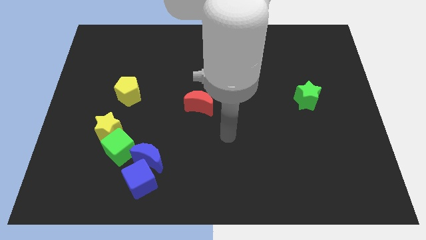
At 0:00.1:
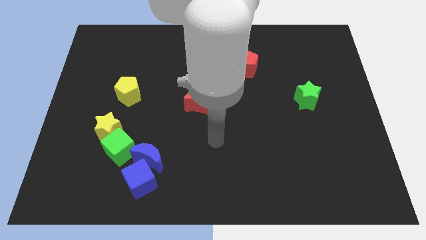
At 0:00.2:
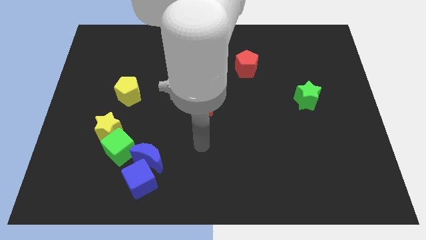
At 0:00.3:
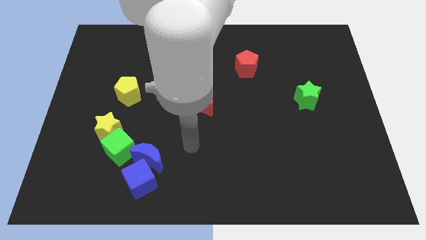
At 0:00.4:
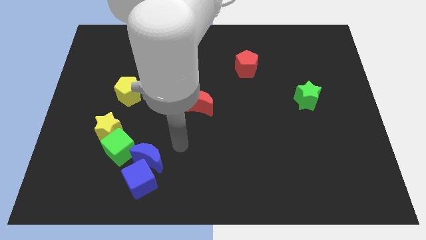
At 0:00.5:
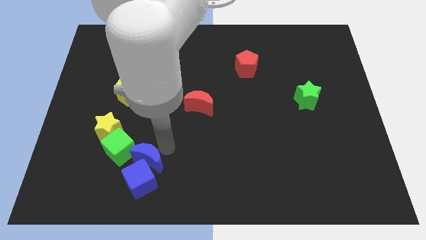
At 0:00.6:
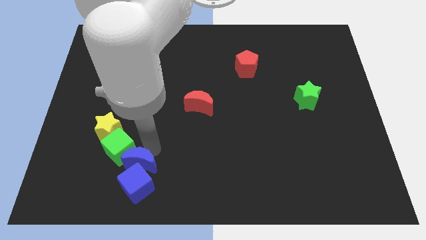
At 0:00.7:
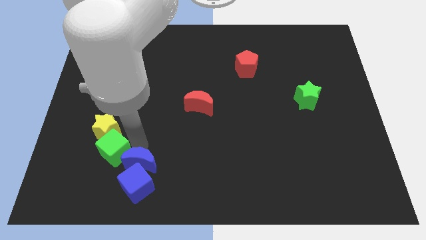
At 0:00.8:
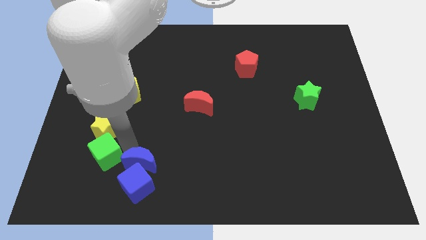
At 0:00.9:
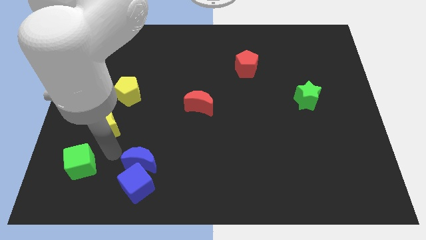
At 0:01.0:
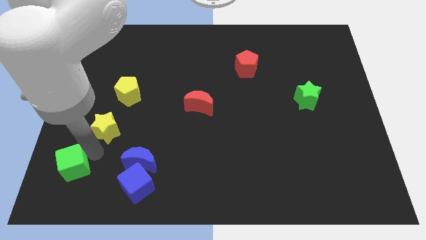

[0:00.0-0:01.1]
pull the yellow star apart from the green cube

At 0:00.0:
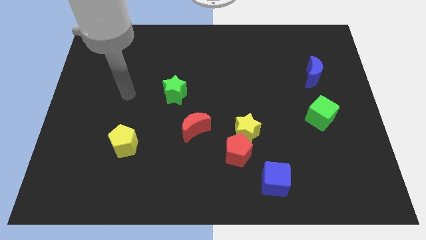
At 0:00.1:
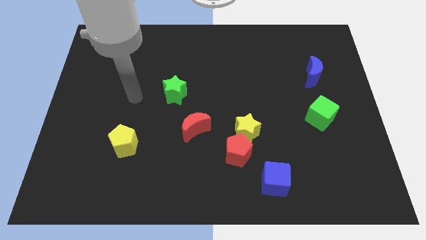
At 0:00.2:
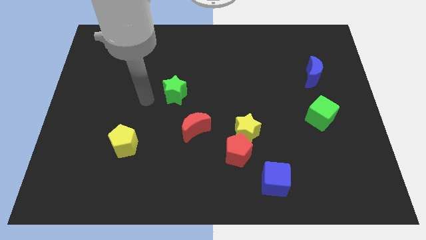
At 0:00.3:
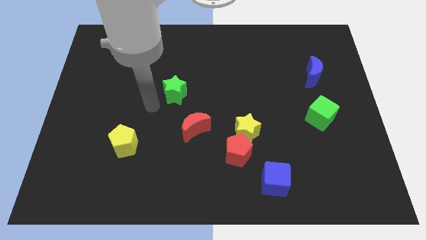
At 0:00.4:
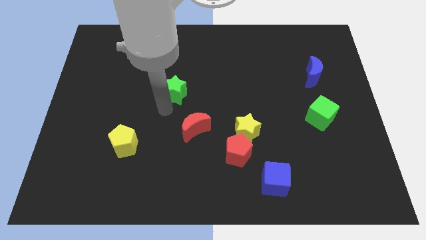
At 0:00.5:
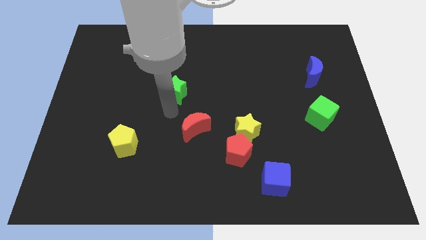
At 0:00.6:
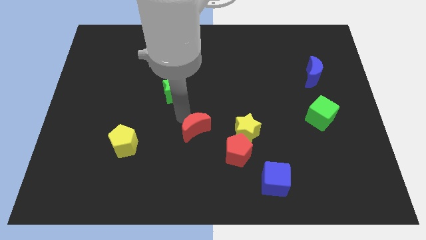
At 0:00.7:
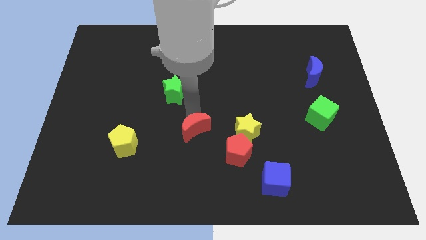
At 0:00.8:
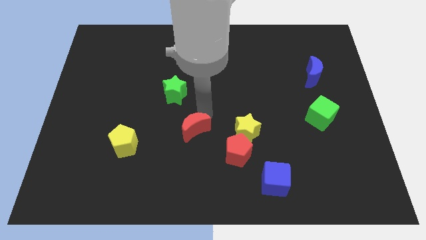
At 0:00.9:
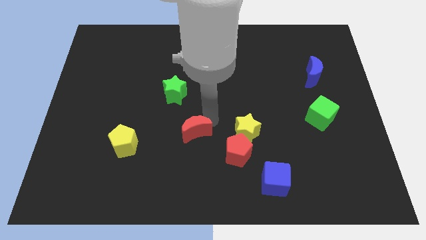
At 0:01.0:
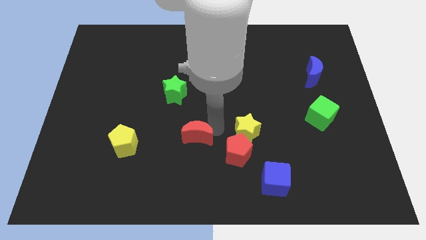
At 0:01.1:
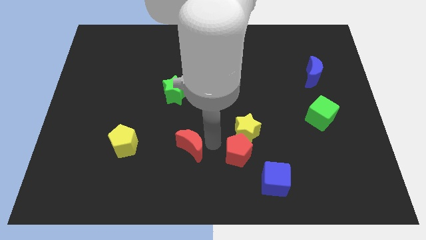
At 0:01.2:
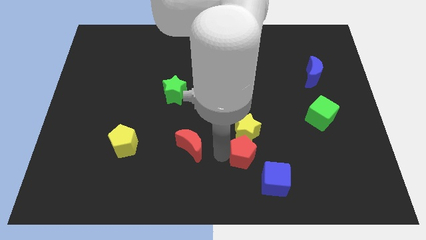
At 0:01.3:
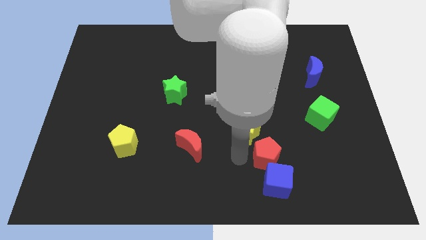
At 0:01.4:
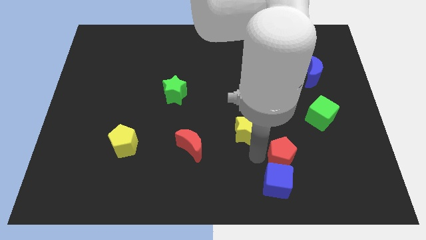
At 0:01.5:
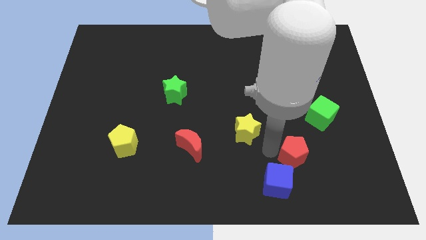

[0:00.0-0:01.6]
move the yellow star away from the red pentagon

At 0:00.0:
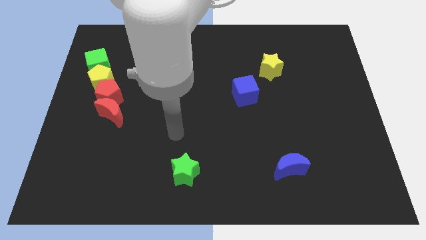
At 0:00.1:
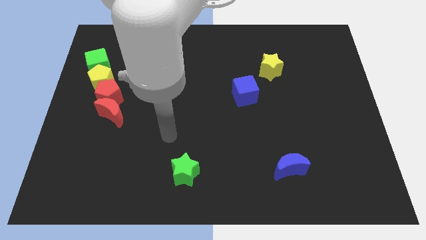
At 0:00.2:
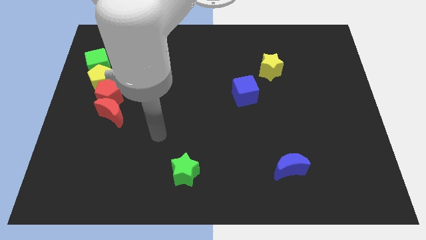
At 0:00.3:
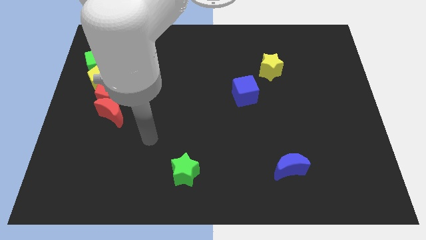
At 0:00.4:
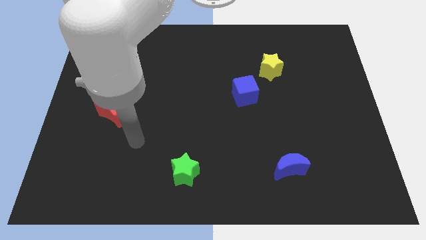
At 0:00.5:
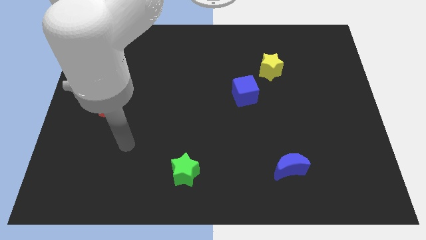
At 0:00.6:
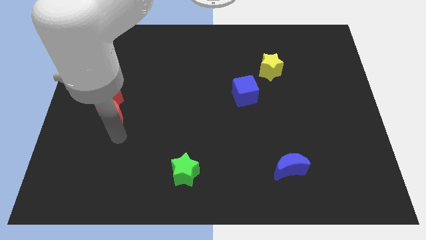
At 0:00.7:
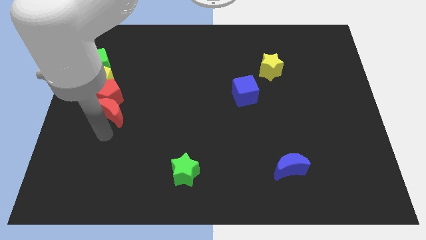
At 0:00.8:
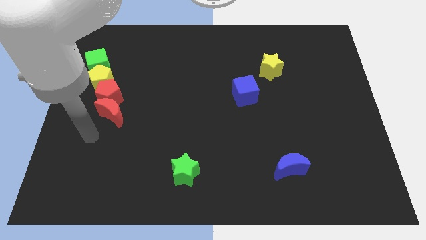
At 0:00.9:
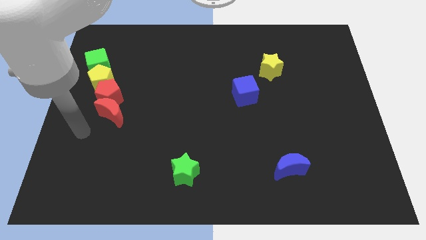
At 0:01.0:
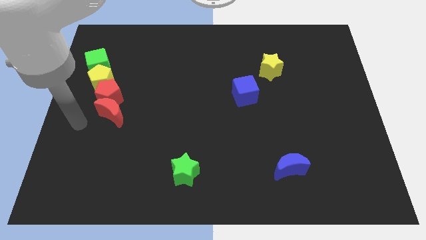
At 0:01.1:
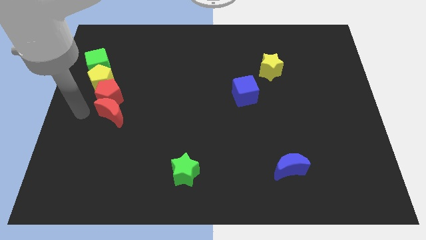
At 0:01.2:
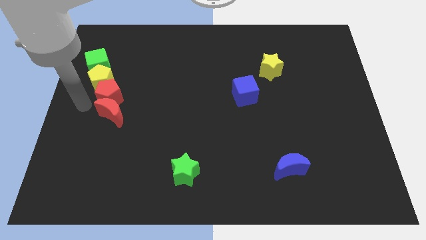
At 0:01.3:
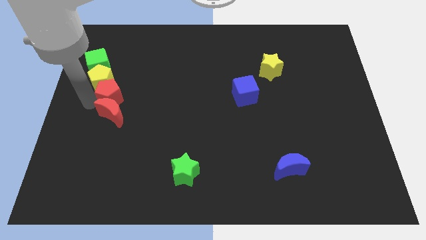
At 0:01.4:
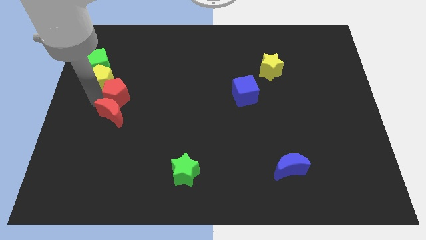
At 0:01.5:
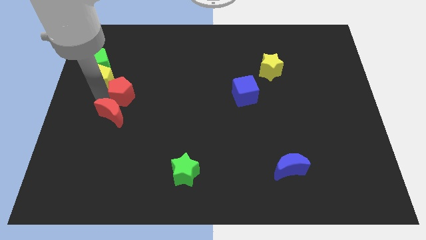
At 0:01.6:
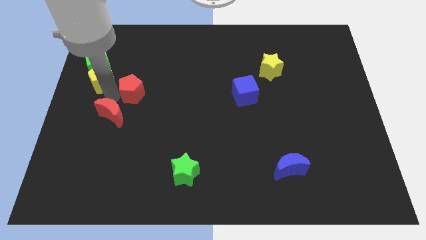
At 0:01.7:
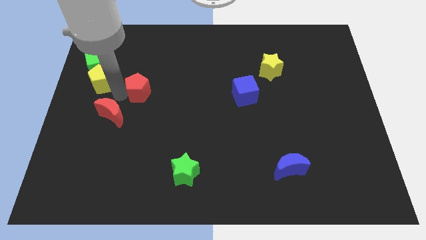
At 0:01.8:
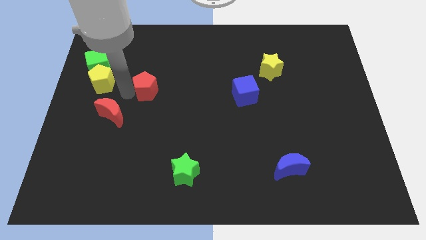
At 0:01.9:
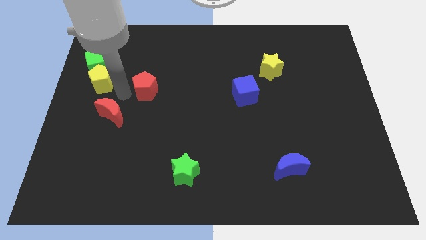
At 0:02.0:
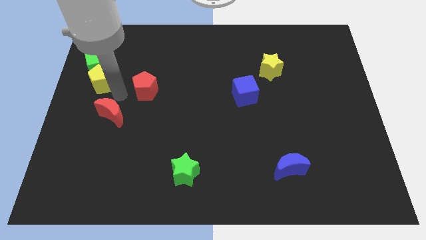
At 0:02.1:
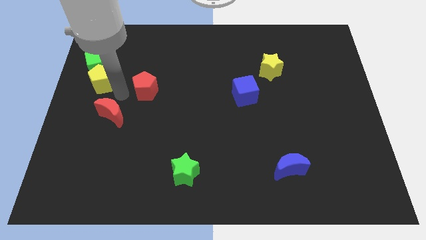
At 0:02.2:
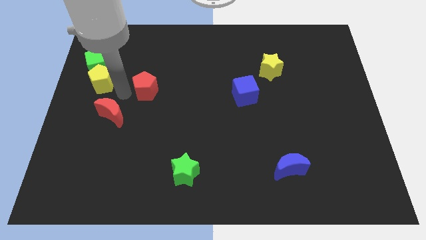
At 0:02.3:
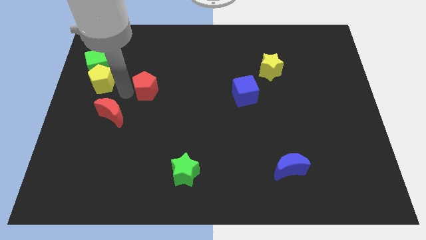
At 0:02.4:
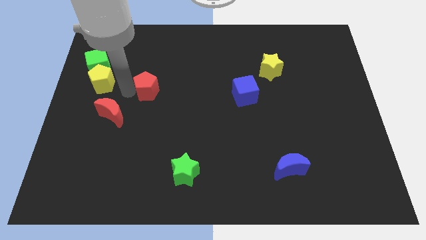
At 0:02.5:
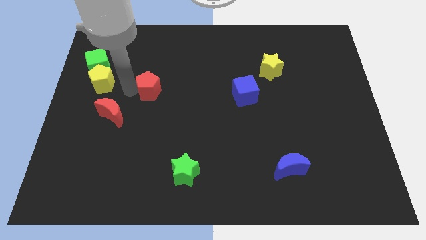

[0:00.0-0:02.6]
pull the red pentagon apart from the yellow pentagon and red moon

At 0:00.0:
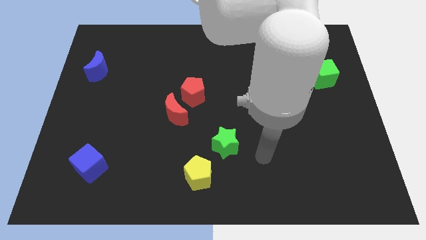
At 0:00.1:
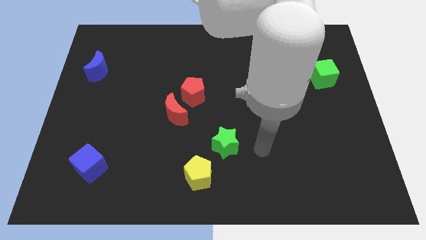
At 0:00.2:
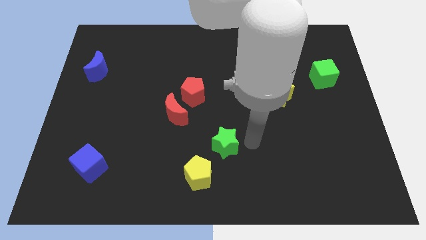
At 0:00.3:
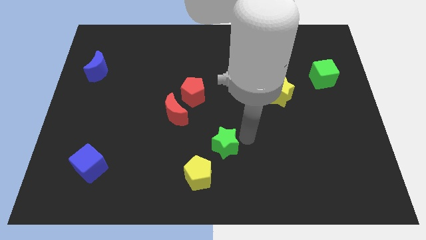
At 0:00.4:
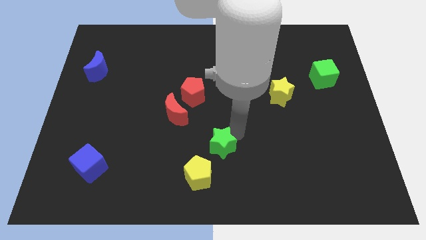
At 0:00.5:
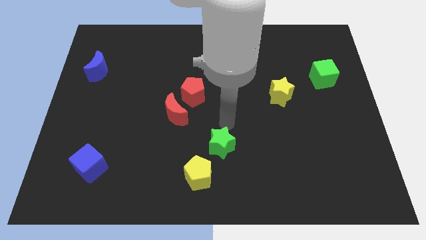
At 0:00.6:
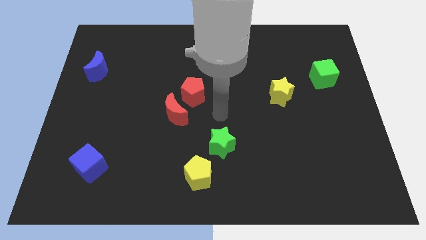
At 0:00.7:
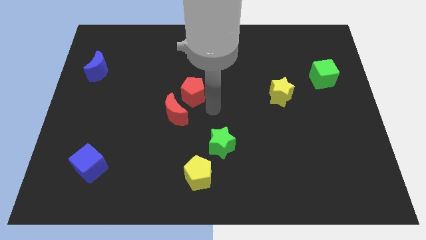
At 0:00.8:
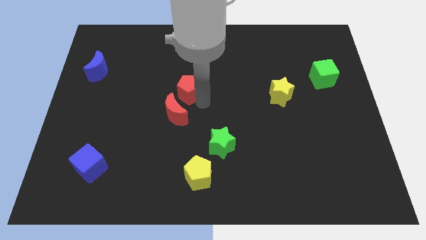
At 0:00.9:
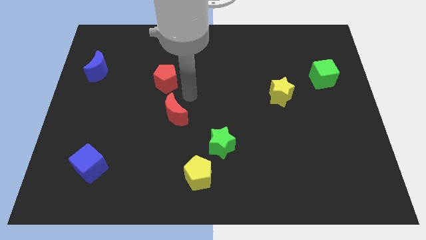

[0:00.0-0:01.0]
separate the red moon from the red pentagon

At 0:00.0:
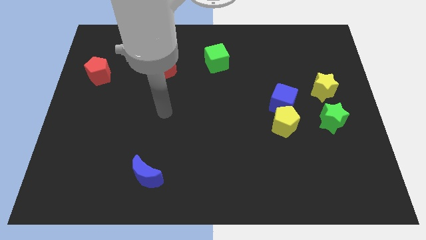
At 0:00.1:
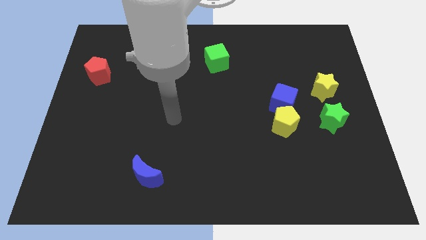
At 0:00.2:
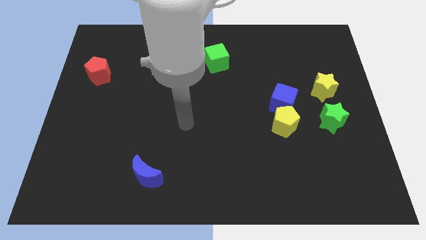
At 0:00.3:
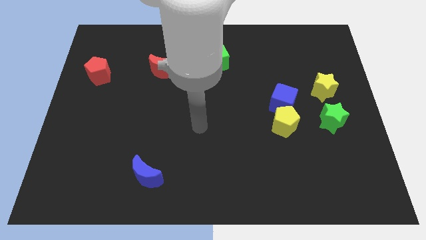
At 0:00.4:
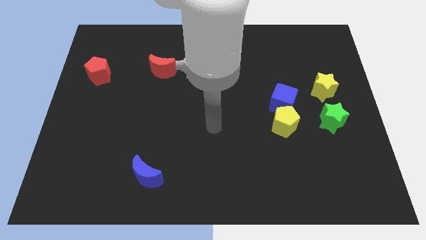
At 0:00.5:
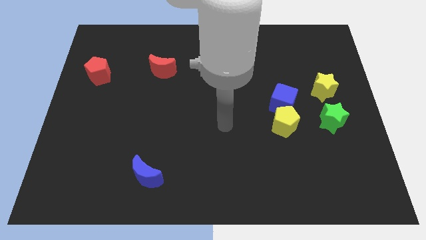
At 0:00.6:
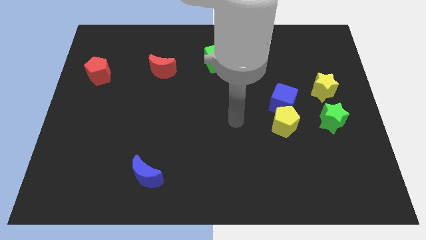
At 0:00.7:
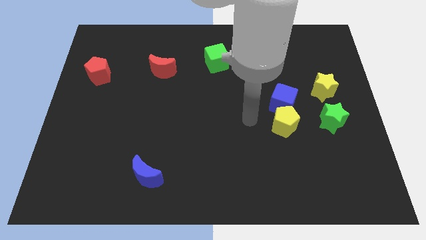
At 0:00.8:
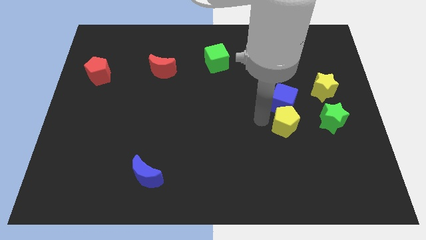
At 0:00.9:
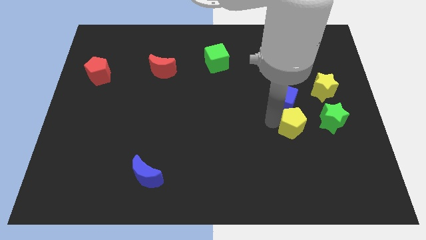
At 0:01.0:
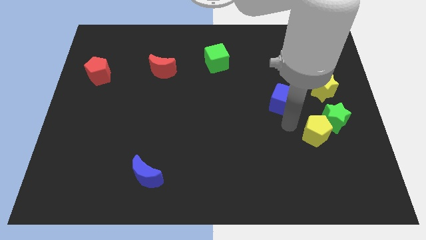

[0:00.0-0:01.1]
pull the blue cube apart from the yellow pentagon

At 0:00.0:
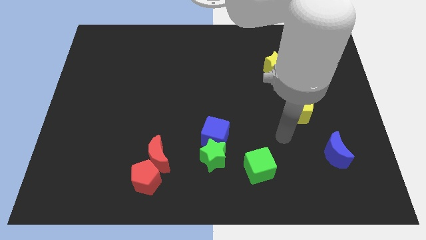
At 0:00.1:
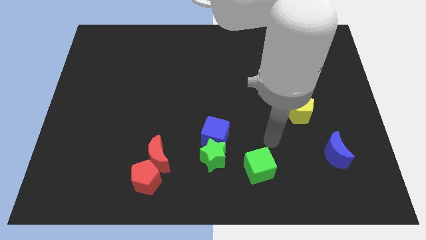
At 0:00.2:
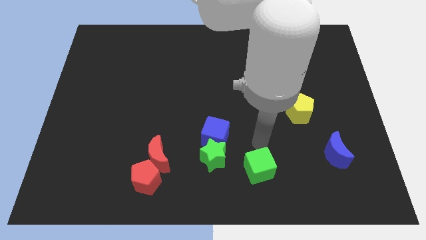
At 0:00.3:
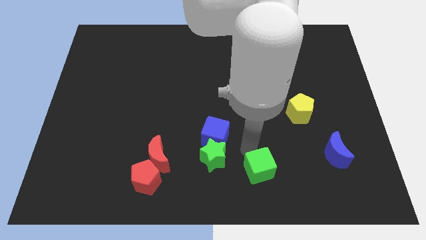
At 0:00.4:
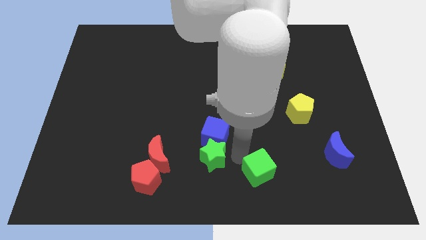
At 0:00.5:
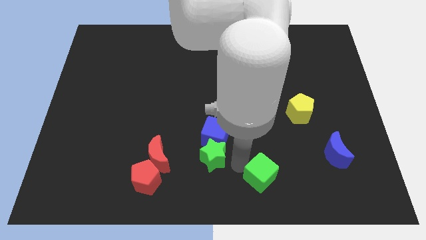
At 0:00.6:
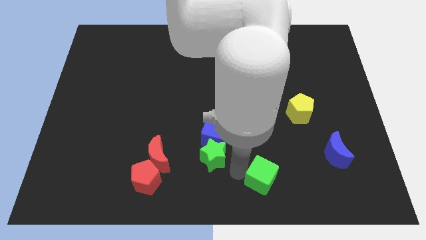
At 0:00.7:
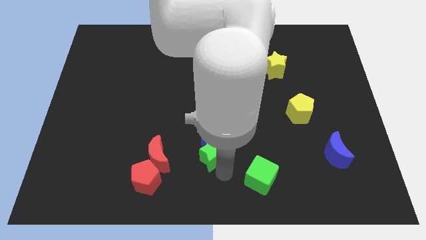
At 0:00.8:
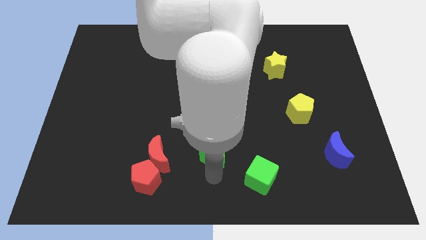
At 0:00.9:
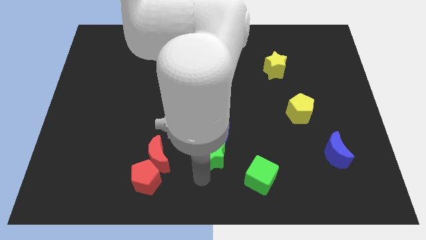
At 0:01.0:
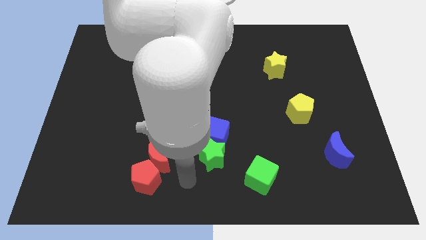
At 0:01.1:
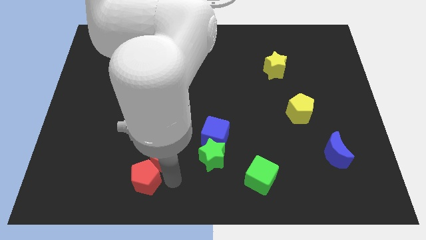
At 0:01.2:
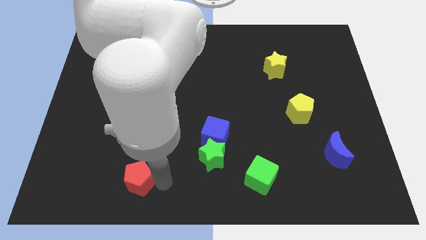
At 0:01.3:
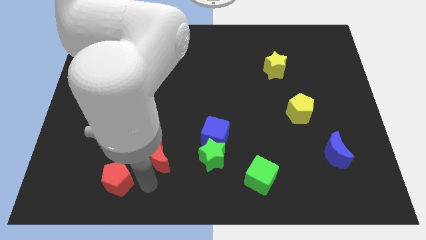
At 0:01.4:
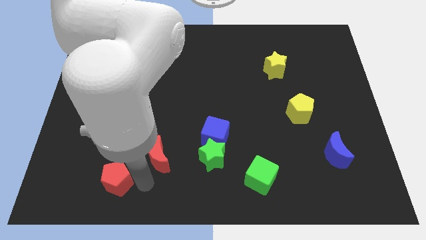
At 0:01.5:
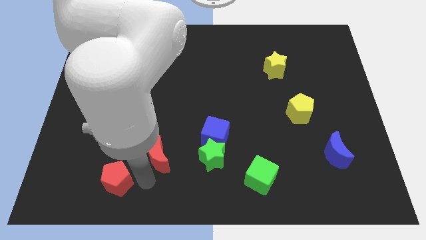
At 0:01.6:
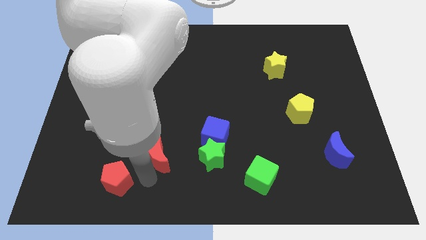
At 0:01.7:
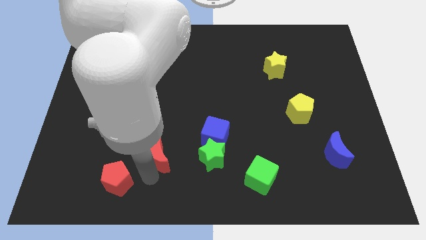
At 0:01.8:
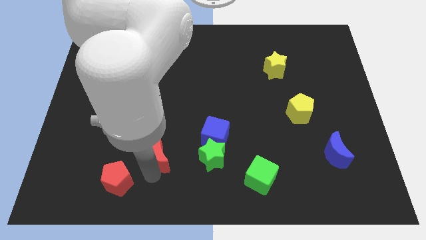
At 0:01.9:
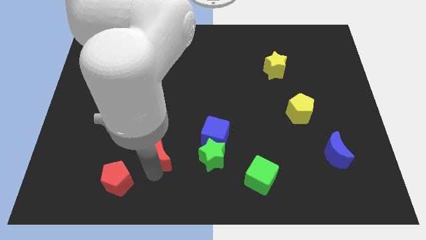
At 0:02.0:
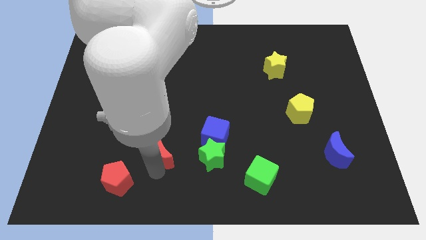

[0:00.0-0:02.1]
pull the red moon apart from the red pentagon
